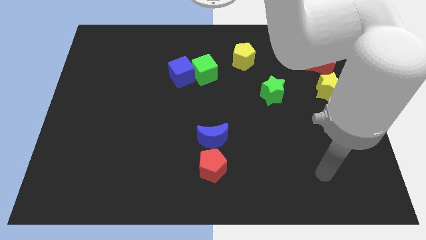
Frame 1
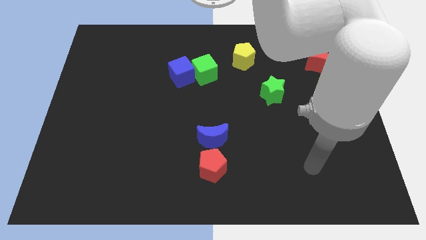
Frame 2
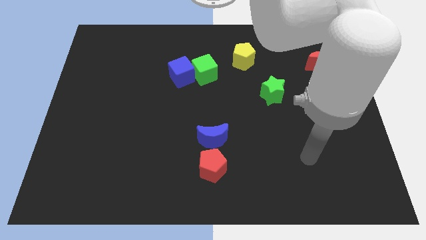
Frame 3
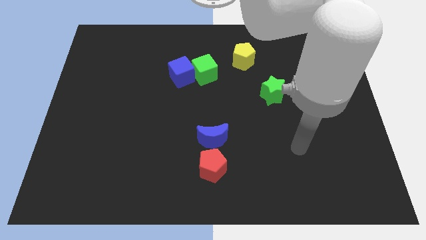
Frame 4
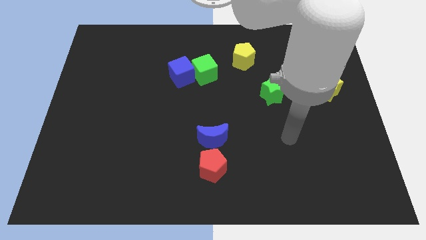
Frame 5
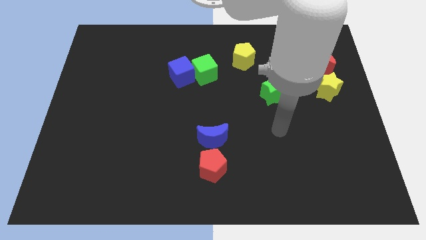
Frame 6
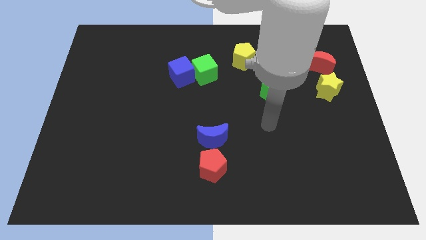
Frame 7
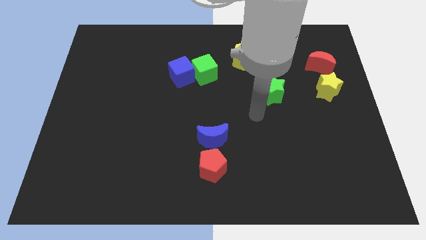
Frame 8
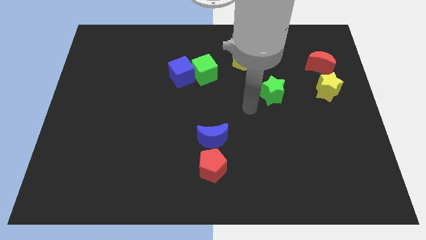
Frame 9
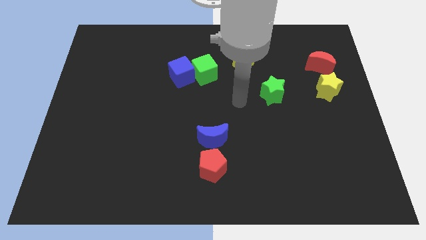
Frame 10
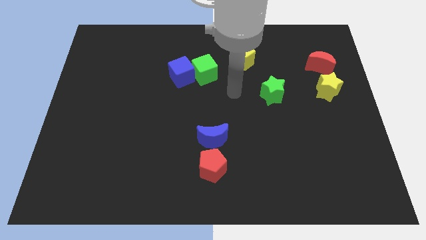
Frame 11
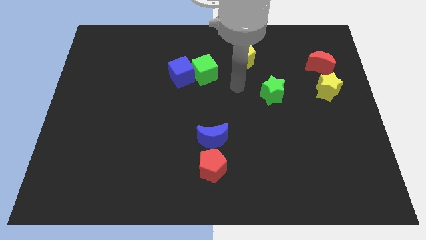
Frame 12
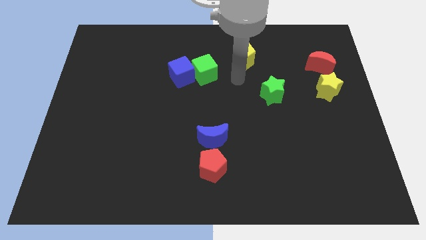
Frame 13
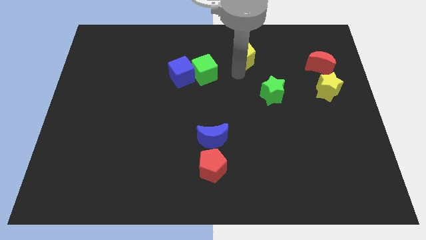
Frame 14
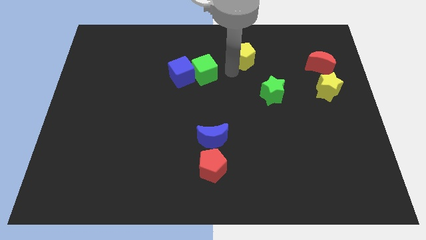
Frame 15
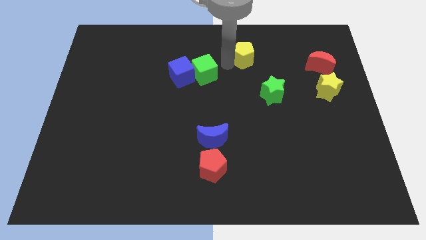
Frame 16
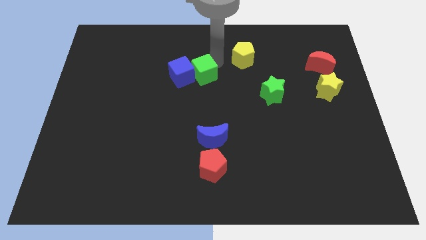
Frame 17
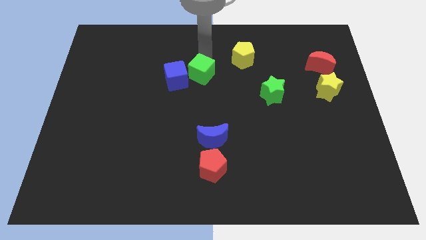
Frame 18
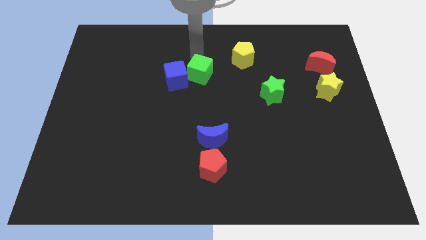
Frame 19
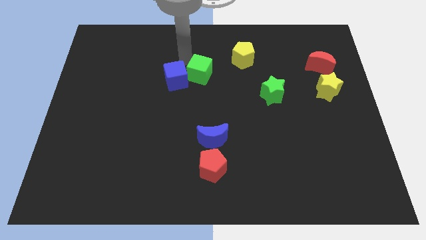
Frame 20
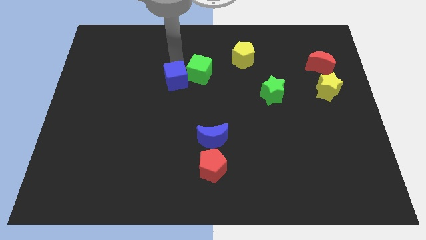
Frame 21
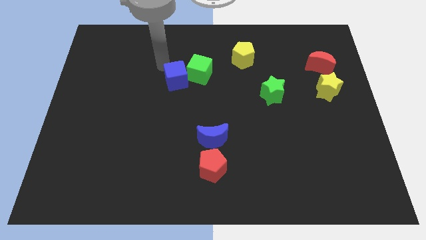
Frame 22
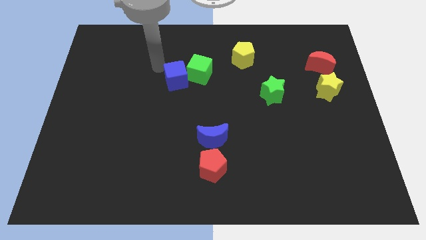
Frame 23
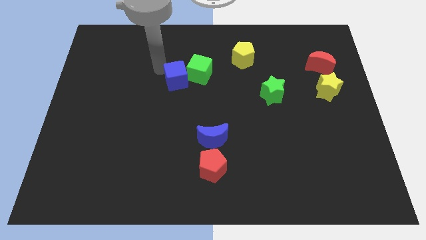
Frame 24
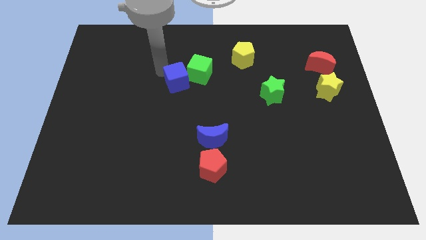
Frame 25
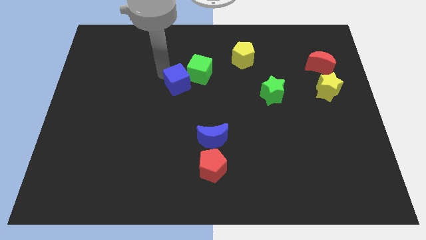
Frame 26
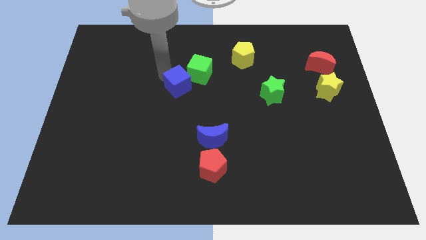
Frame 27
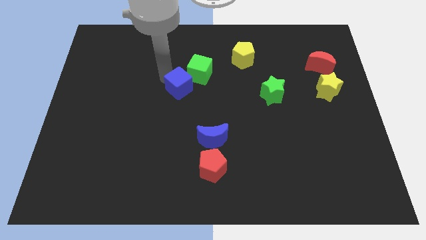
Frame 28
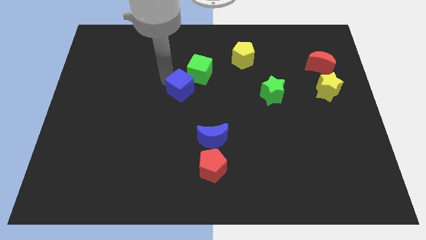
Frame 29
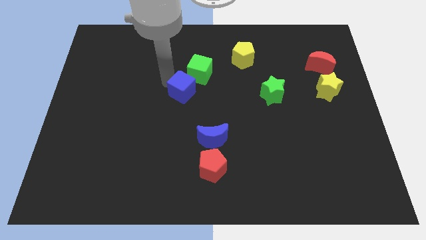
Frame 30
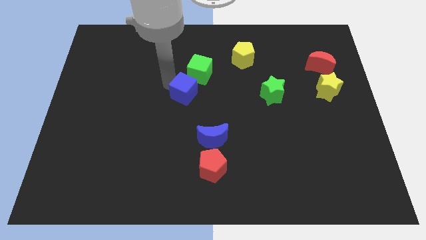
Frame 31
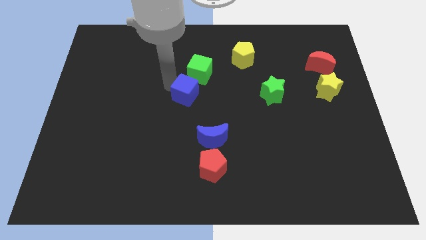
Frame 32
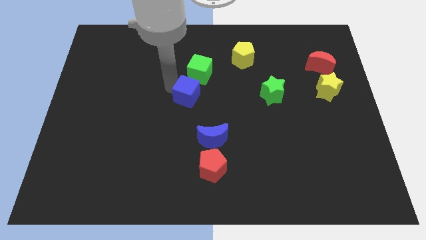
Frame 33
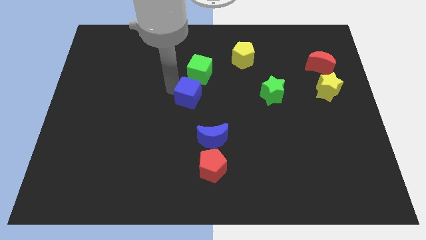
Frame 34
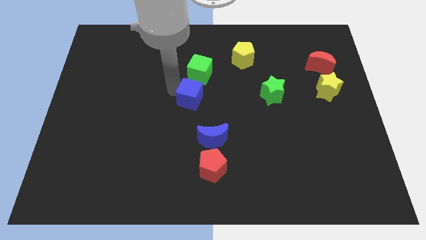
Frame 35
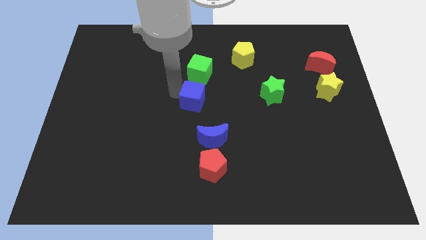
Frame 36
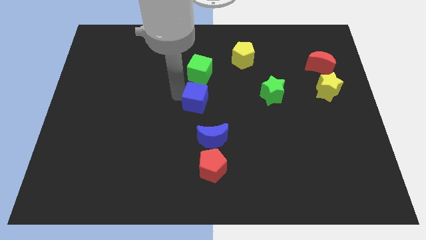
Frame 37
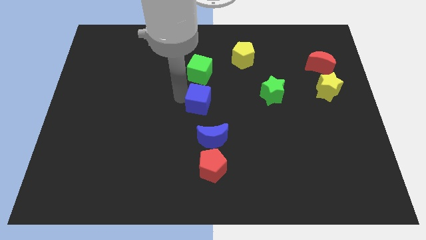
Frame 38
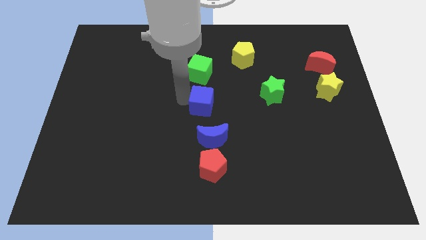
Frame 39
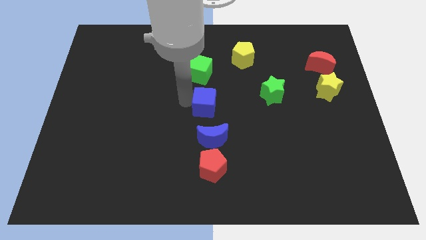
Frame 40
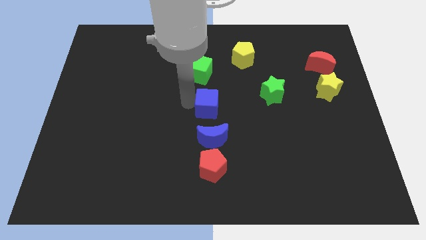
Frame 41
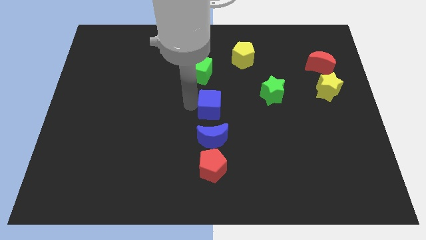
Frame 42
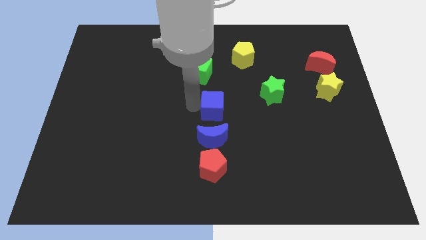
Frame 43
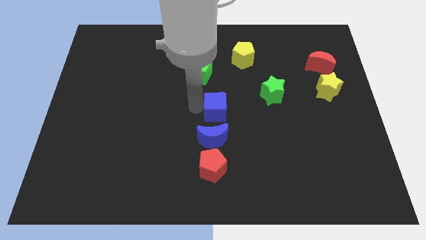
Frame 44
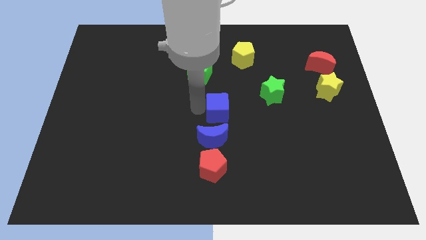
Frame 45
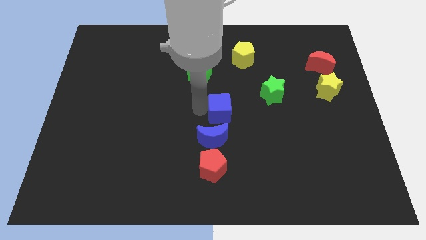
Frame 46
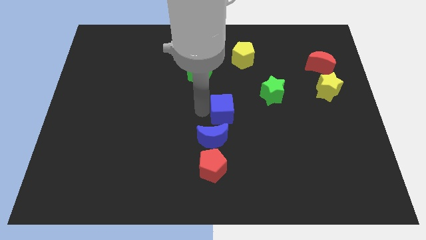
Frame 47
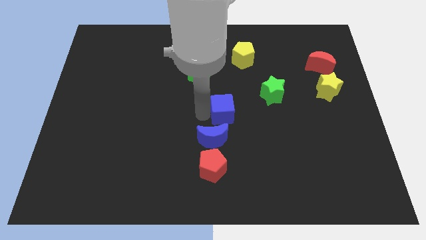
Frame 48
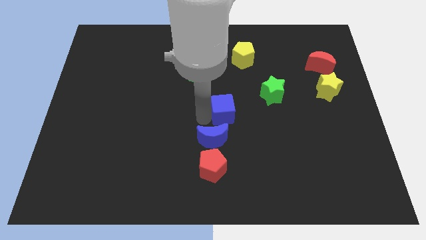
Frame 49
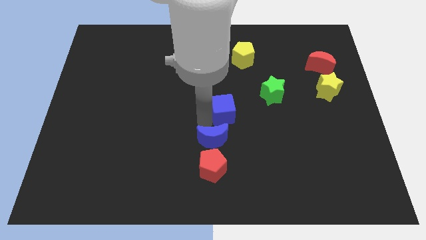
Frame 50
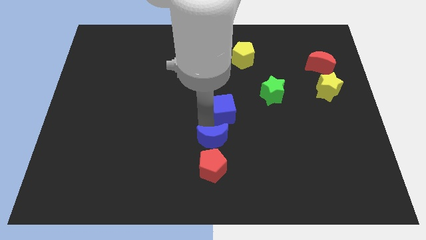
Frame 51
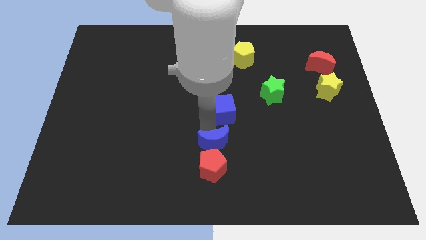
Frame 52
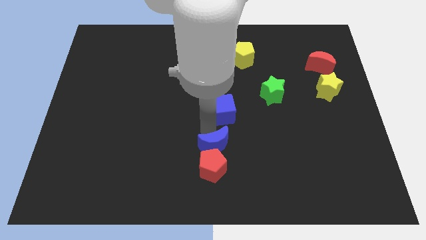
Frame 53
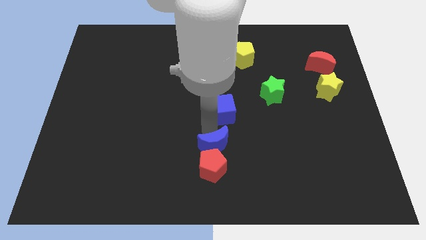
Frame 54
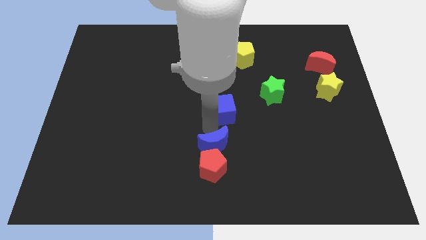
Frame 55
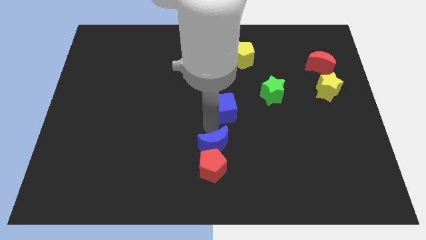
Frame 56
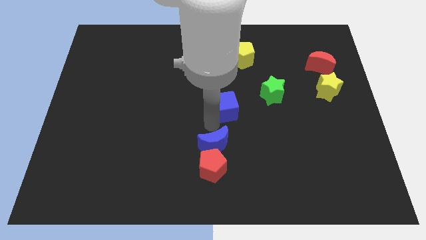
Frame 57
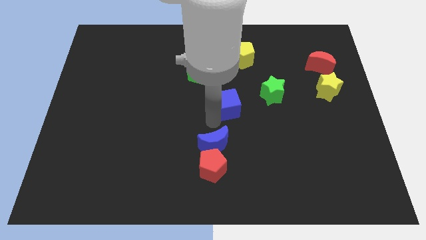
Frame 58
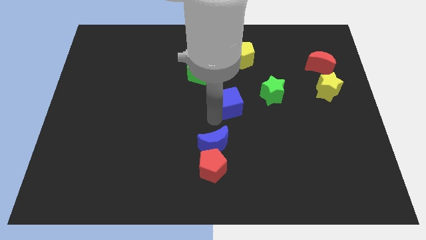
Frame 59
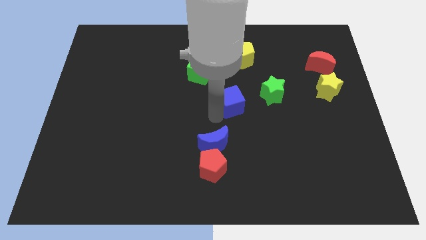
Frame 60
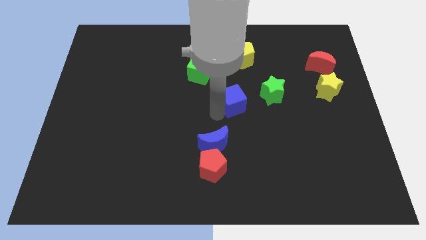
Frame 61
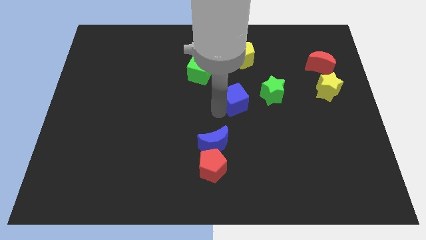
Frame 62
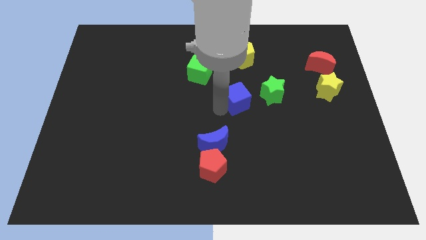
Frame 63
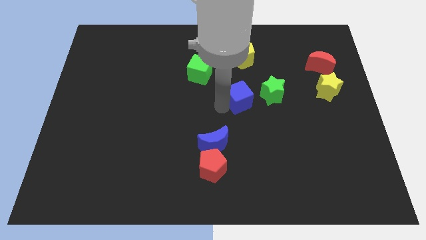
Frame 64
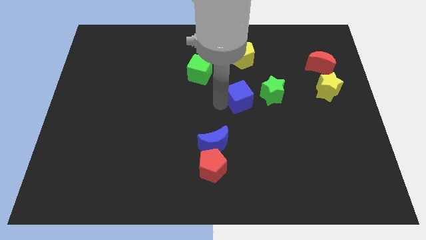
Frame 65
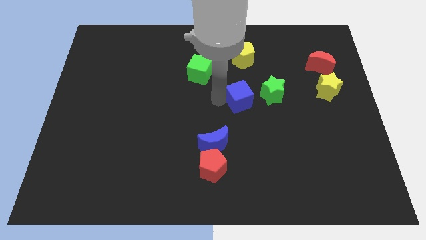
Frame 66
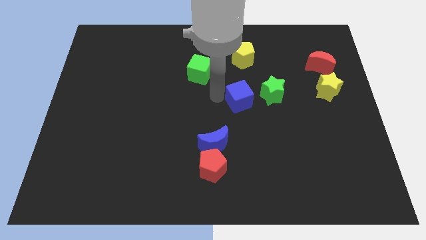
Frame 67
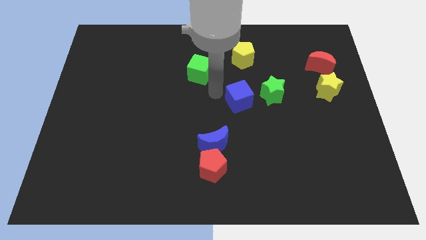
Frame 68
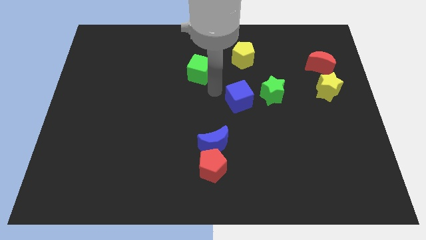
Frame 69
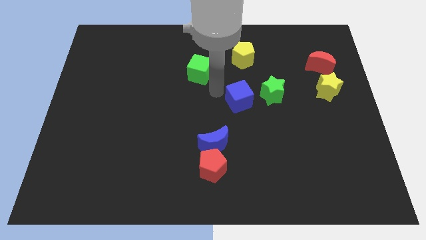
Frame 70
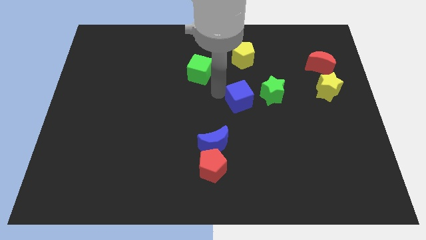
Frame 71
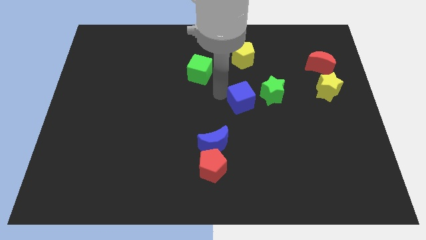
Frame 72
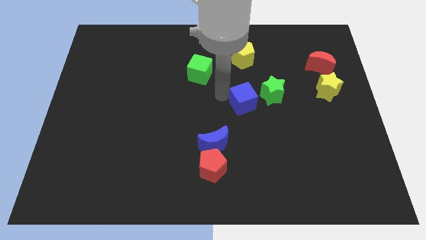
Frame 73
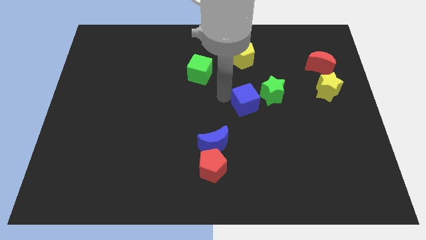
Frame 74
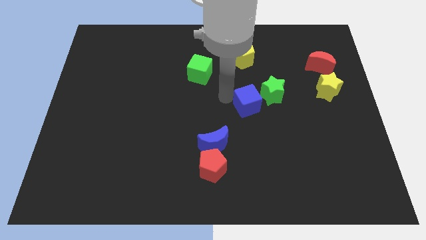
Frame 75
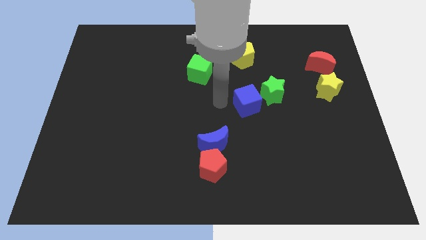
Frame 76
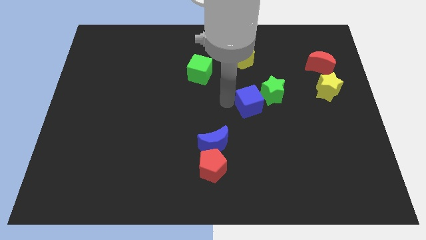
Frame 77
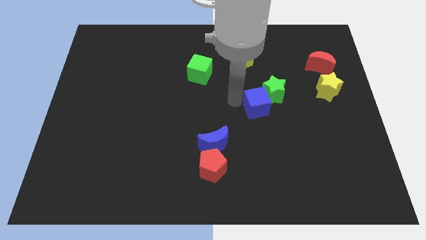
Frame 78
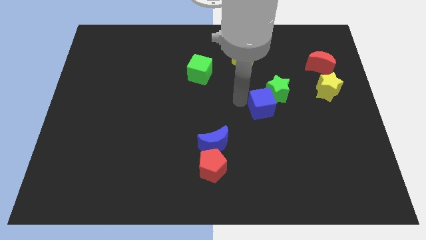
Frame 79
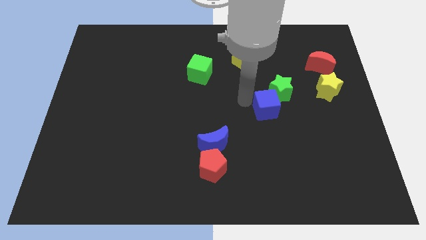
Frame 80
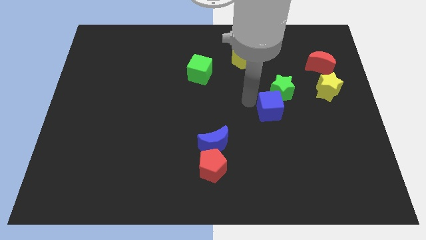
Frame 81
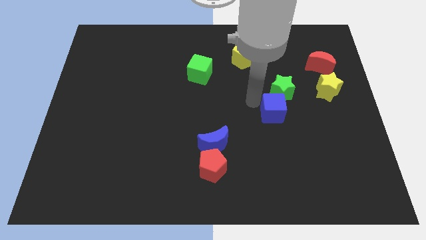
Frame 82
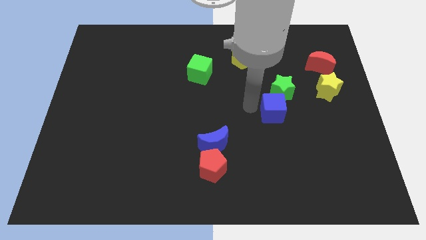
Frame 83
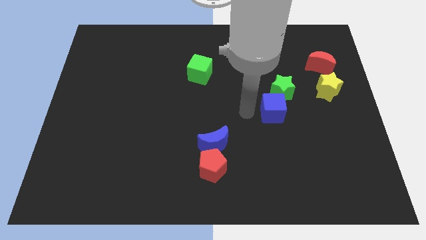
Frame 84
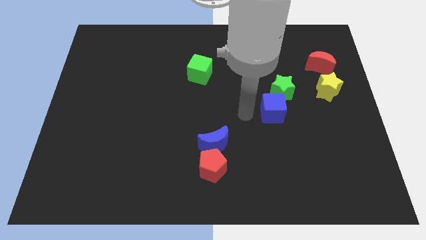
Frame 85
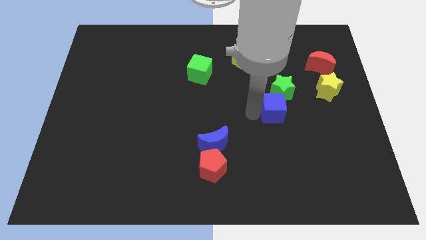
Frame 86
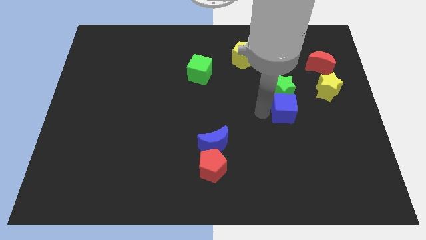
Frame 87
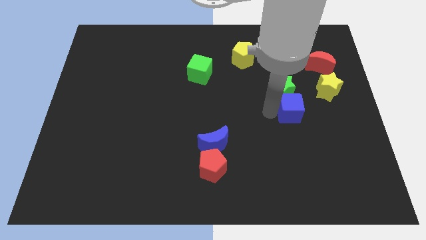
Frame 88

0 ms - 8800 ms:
push the blue cube to the bottom left of the yellow star
